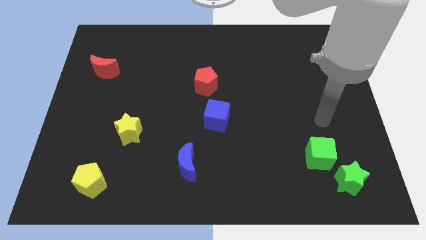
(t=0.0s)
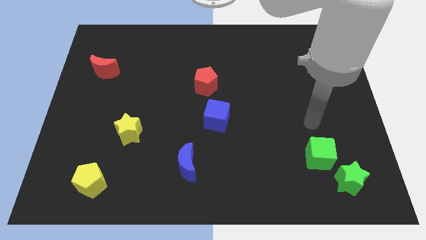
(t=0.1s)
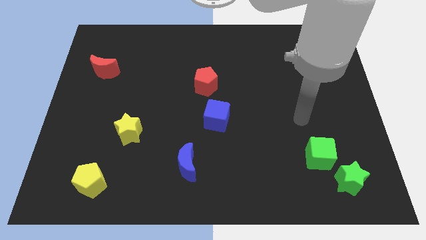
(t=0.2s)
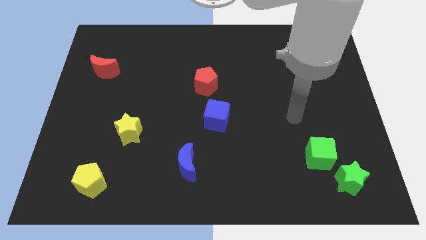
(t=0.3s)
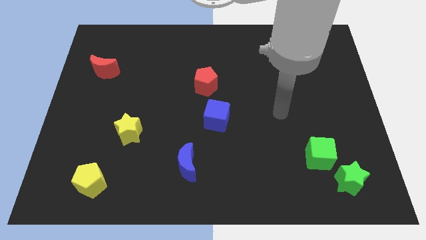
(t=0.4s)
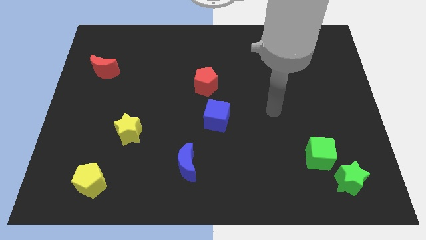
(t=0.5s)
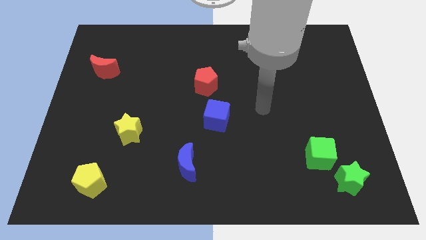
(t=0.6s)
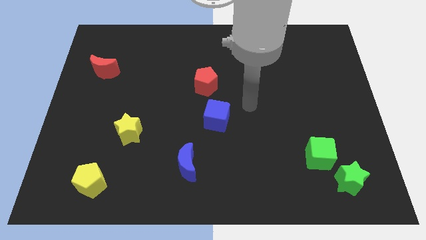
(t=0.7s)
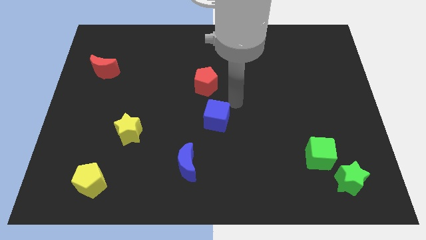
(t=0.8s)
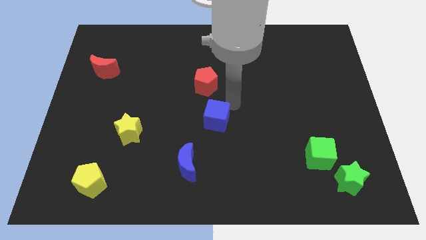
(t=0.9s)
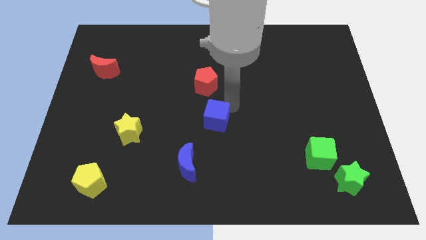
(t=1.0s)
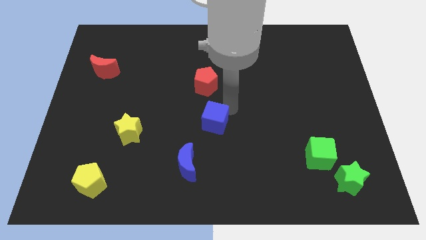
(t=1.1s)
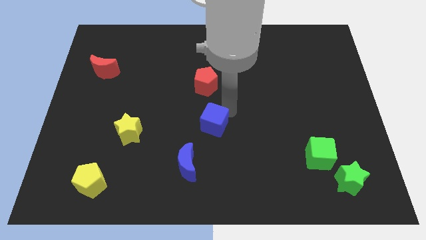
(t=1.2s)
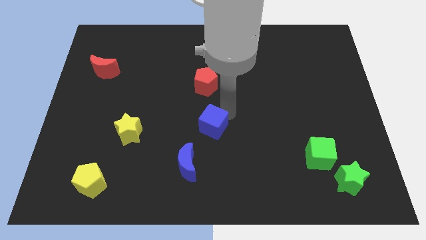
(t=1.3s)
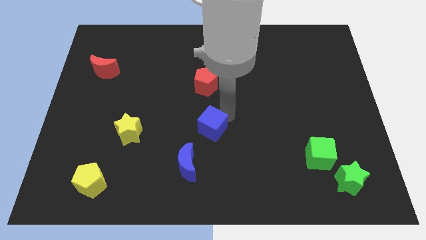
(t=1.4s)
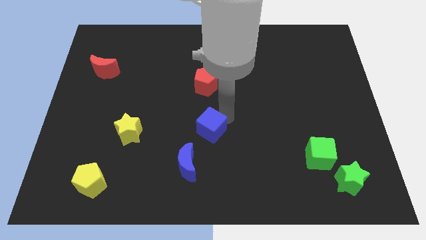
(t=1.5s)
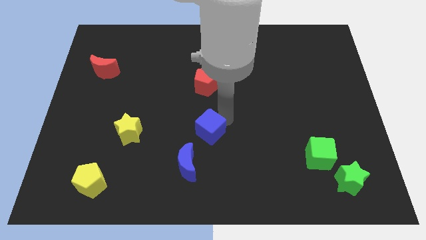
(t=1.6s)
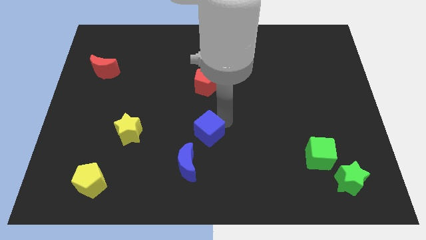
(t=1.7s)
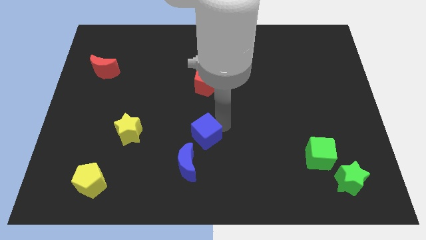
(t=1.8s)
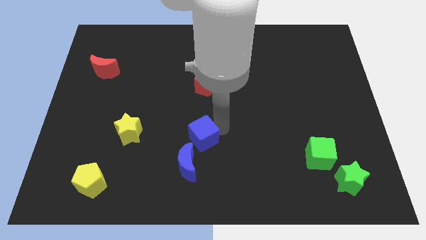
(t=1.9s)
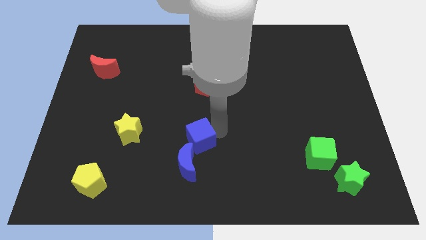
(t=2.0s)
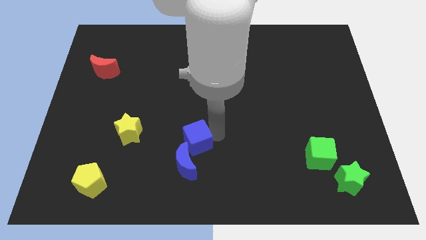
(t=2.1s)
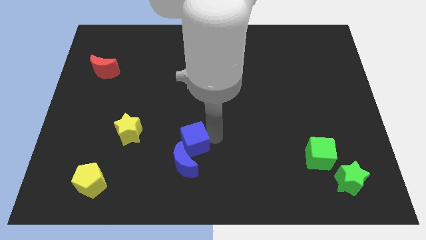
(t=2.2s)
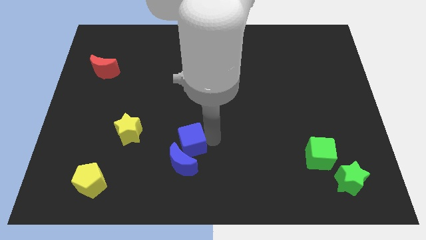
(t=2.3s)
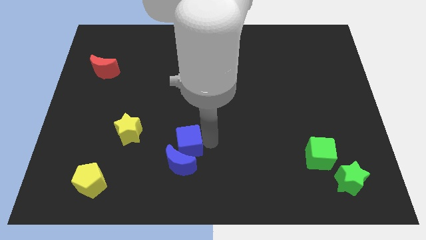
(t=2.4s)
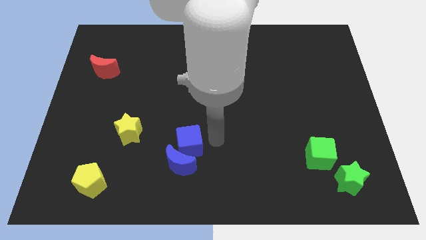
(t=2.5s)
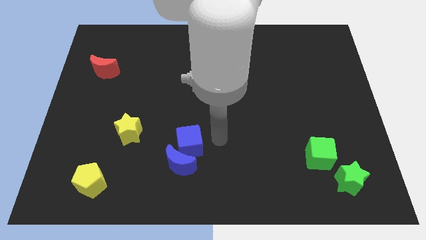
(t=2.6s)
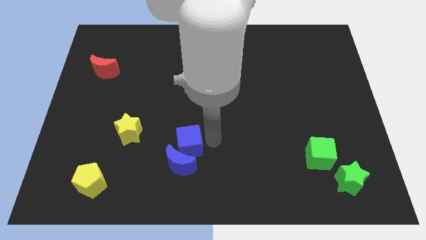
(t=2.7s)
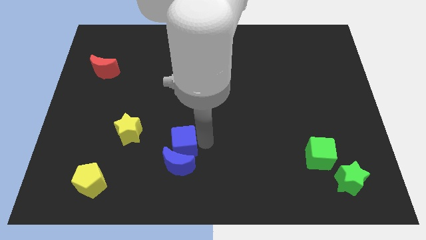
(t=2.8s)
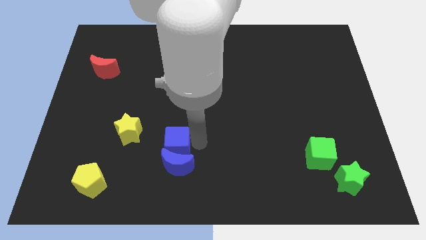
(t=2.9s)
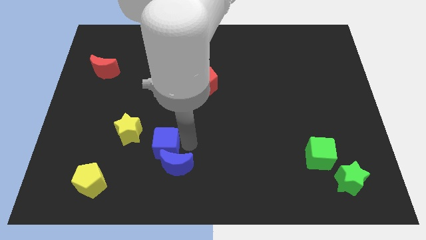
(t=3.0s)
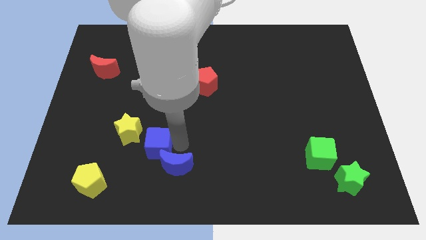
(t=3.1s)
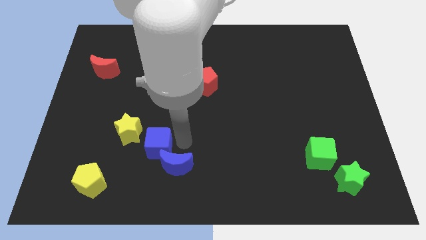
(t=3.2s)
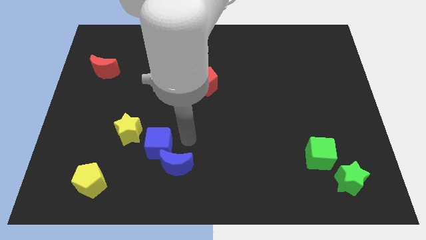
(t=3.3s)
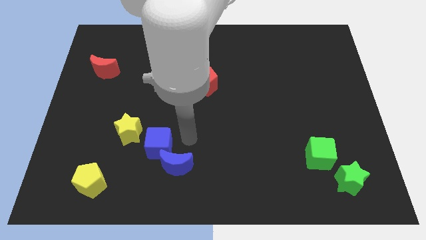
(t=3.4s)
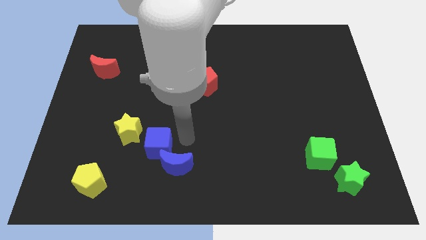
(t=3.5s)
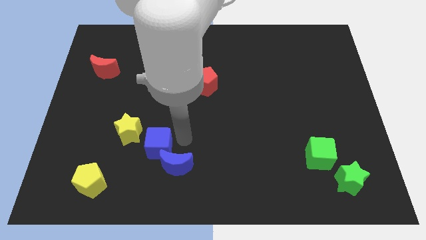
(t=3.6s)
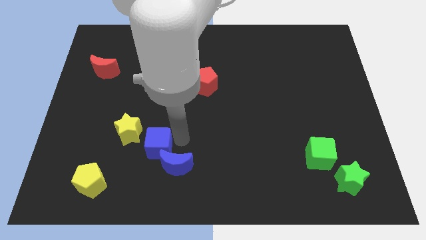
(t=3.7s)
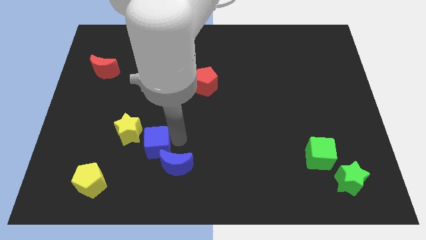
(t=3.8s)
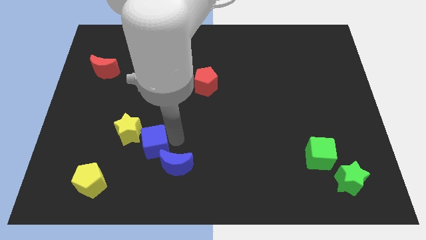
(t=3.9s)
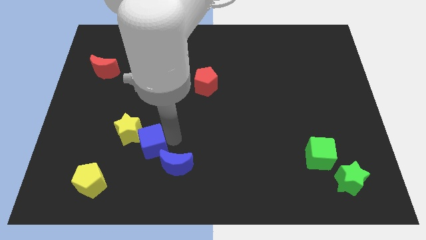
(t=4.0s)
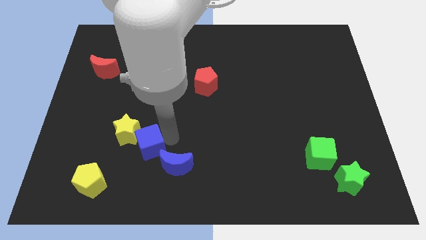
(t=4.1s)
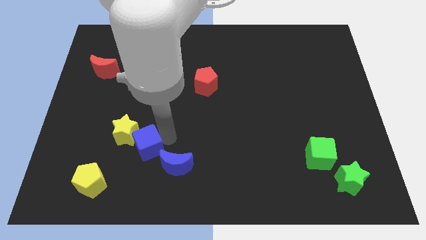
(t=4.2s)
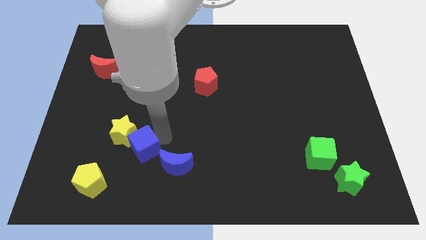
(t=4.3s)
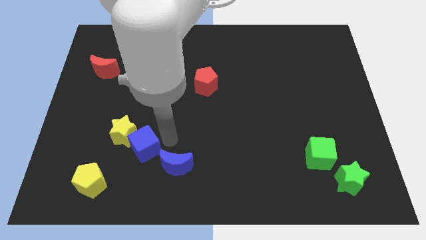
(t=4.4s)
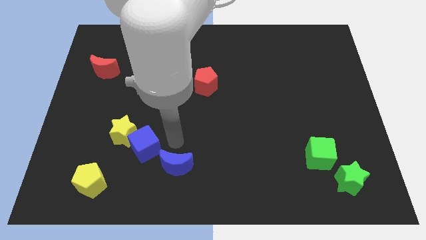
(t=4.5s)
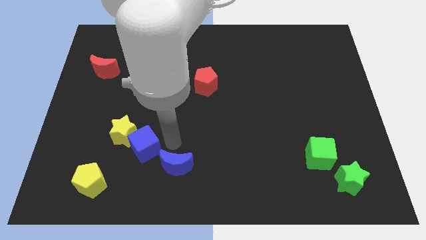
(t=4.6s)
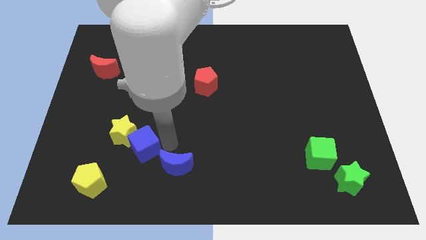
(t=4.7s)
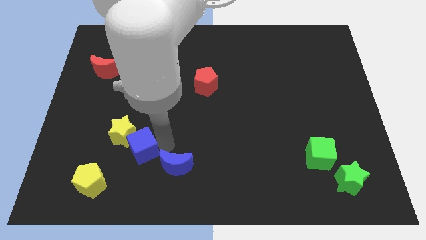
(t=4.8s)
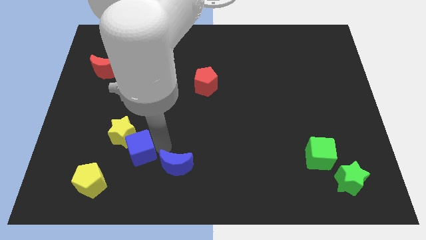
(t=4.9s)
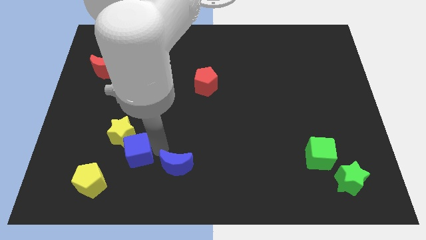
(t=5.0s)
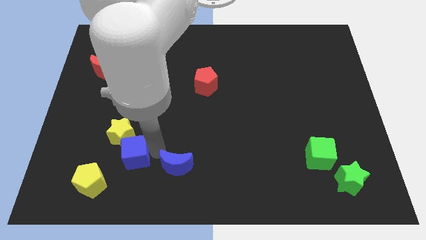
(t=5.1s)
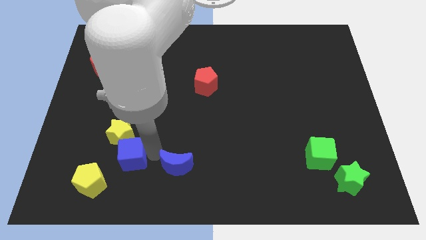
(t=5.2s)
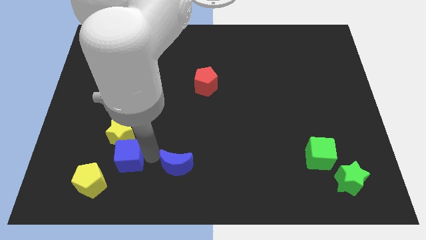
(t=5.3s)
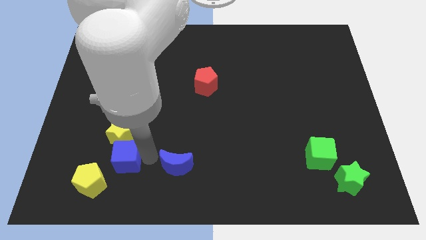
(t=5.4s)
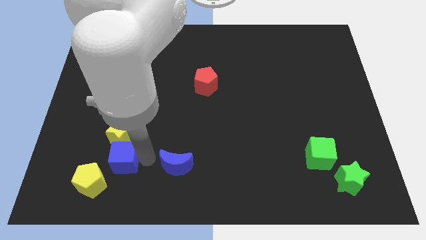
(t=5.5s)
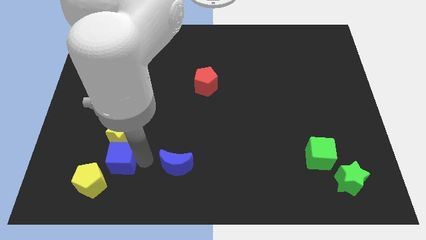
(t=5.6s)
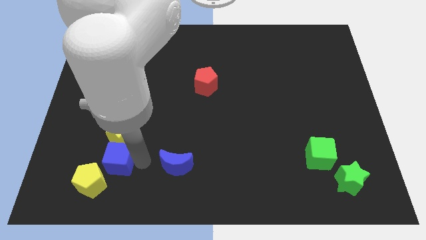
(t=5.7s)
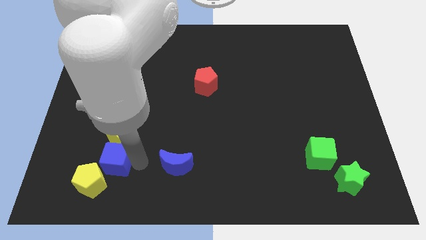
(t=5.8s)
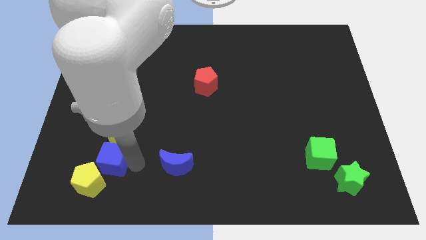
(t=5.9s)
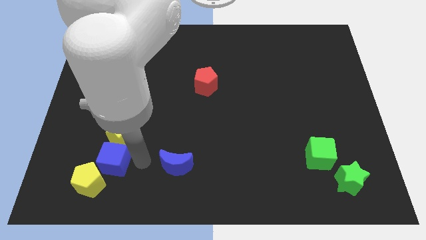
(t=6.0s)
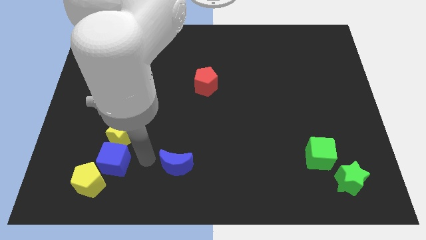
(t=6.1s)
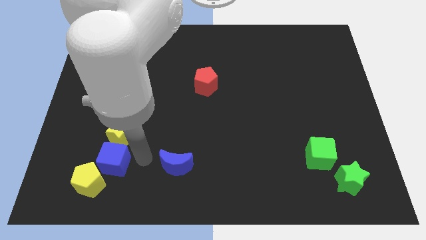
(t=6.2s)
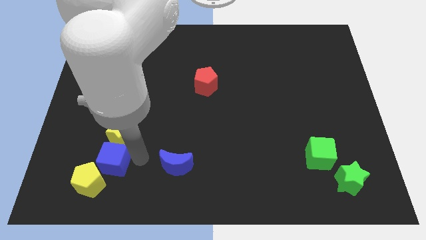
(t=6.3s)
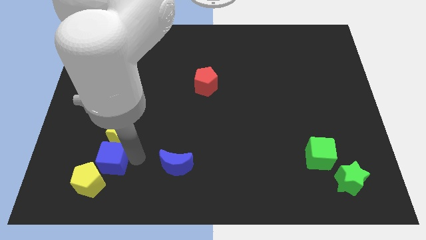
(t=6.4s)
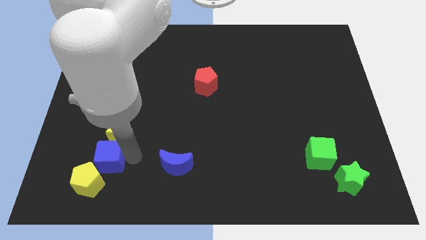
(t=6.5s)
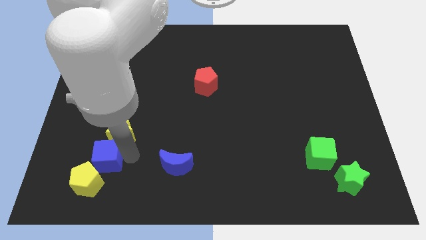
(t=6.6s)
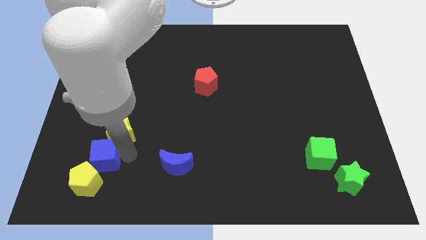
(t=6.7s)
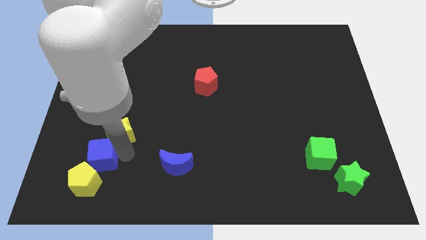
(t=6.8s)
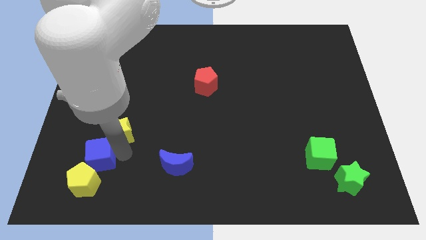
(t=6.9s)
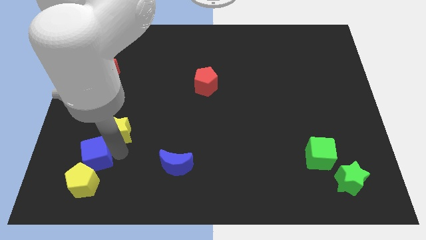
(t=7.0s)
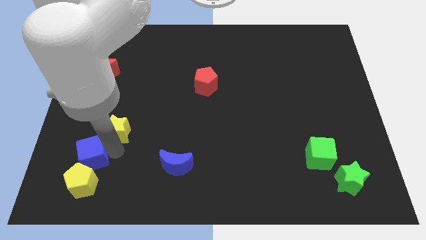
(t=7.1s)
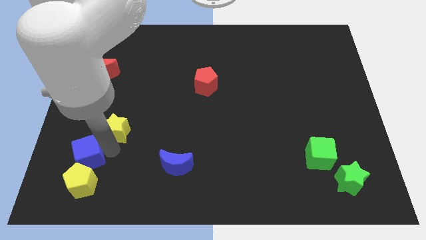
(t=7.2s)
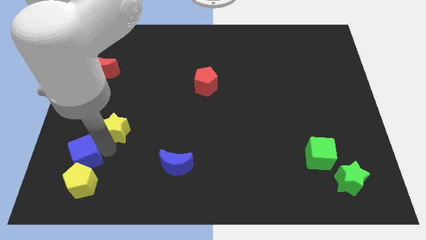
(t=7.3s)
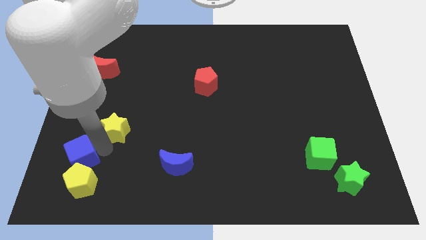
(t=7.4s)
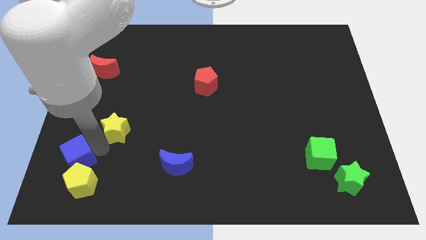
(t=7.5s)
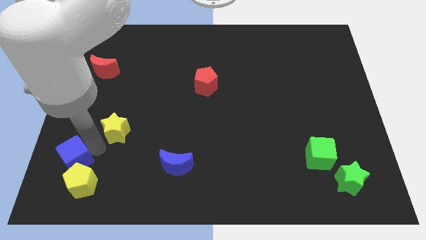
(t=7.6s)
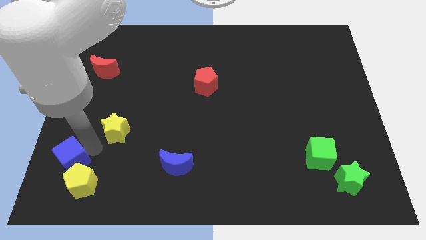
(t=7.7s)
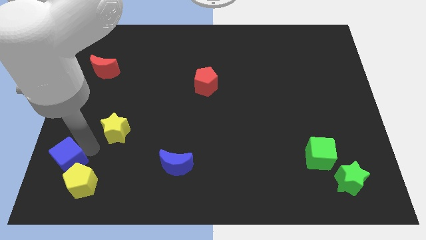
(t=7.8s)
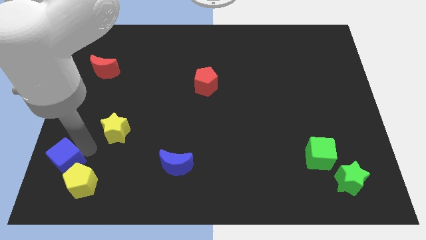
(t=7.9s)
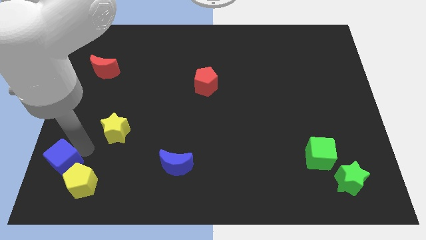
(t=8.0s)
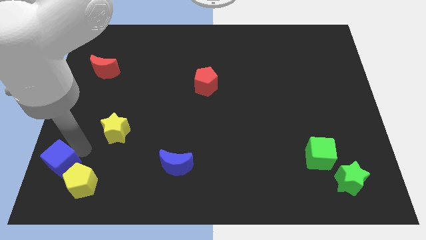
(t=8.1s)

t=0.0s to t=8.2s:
put the blue cube to the bottom left corner
